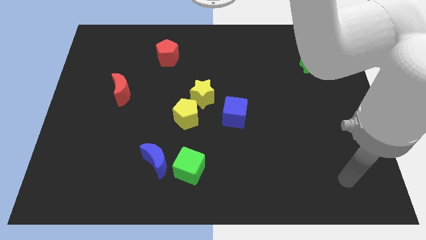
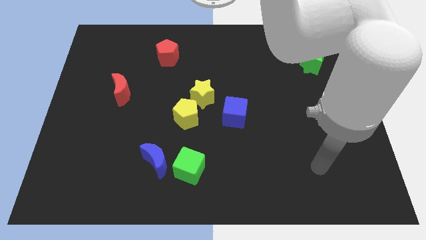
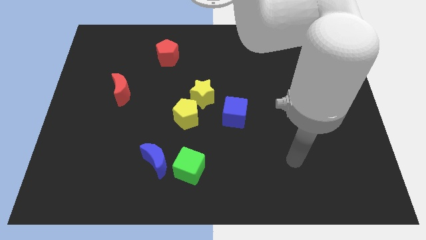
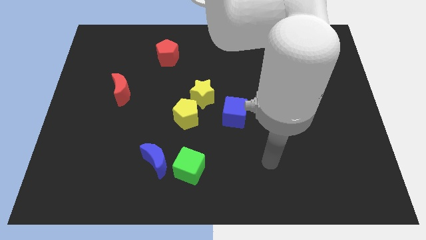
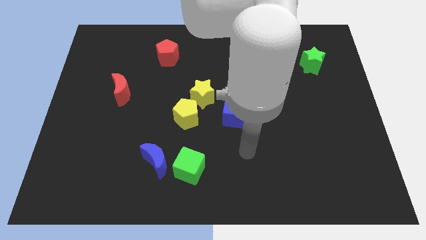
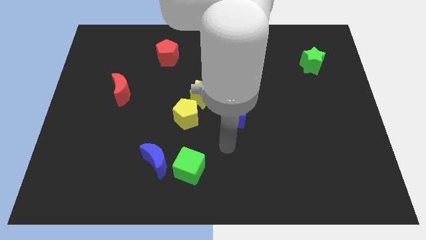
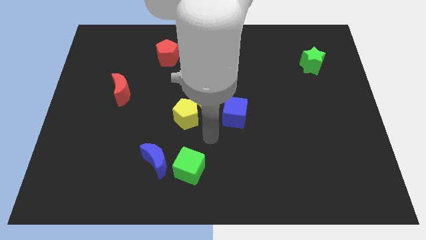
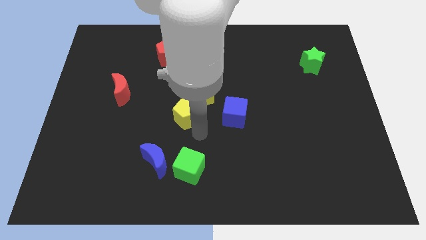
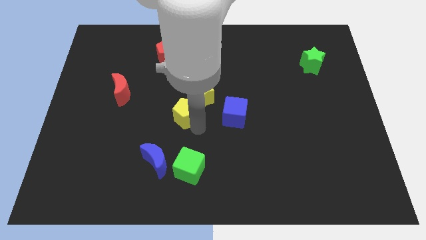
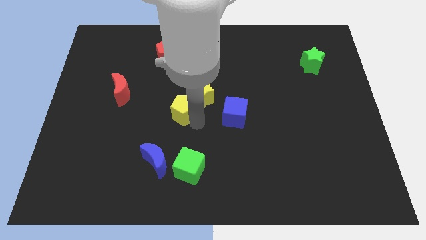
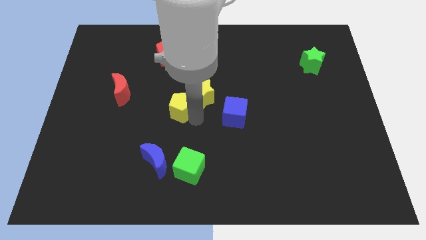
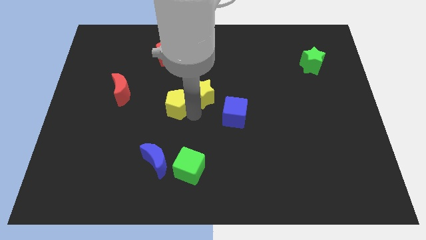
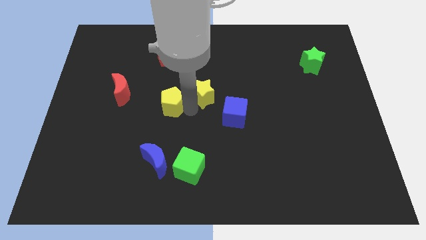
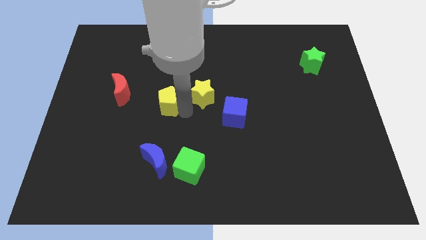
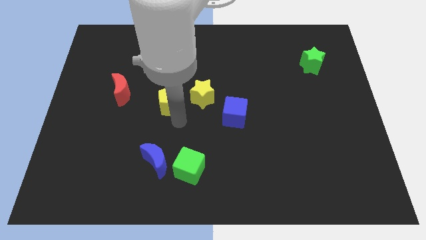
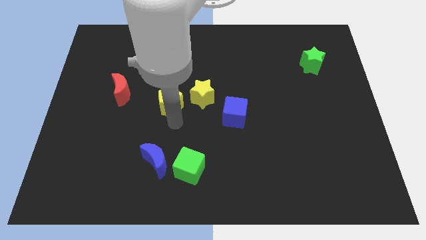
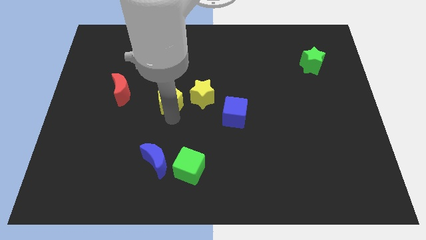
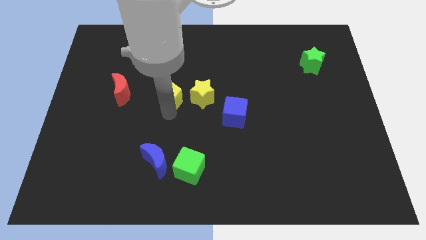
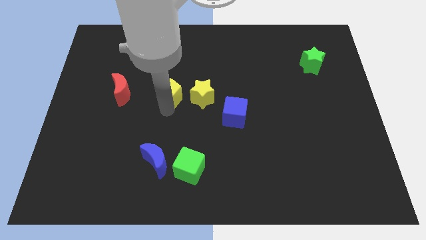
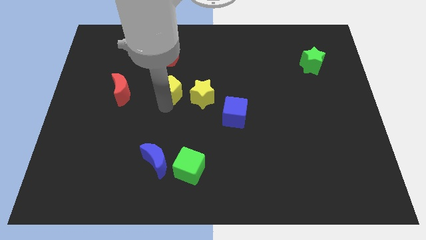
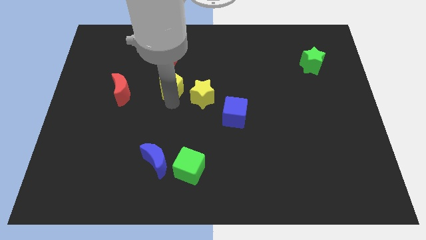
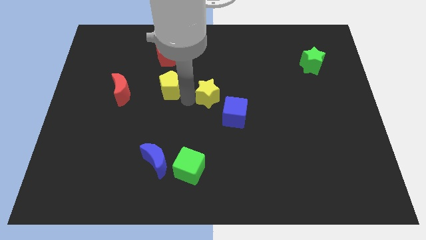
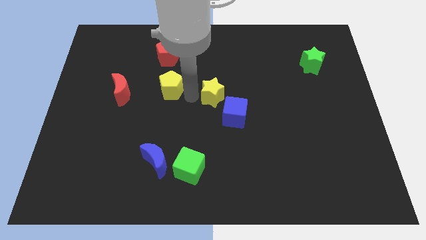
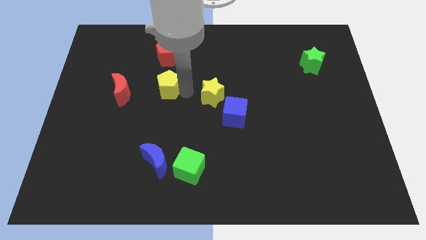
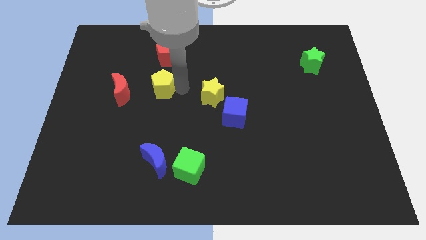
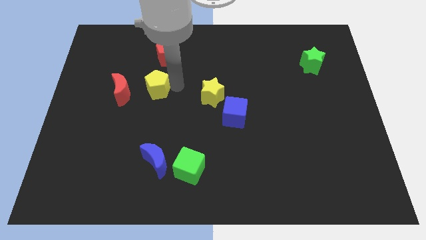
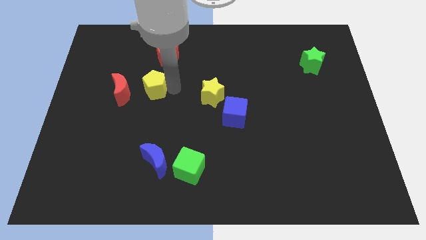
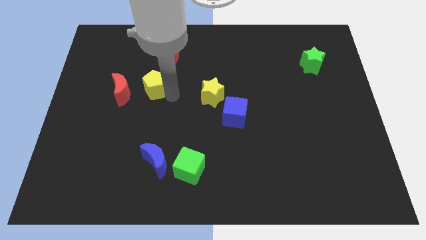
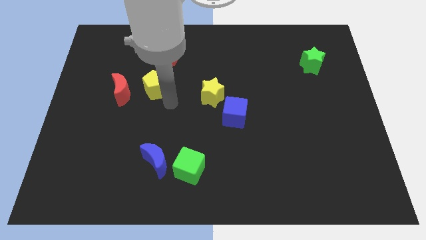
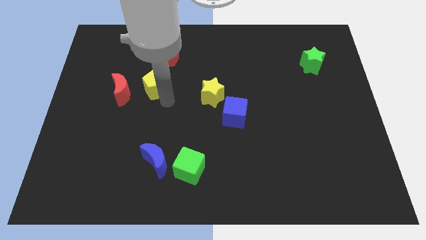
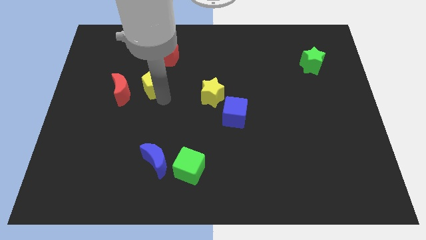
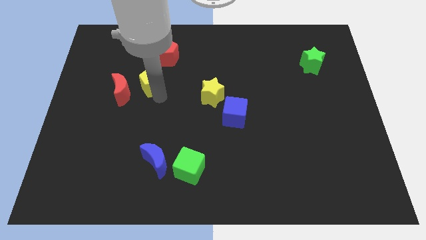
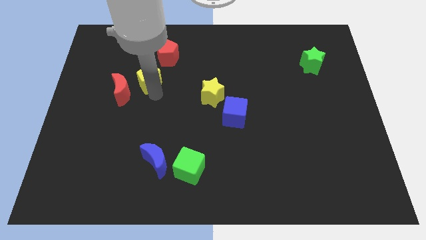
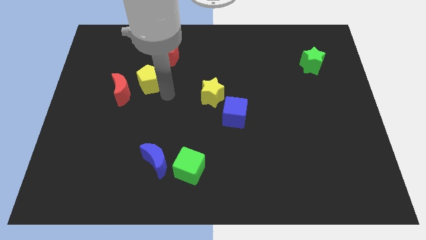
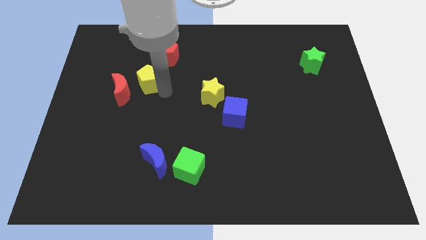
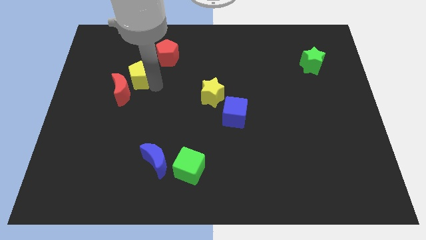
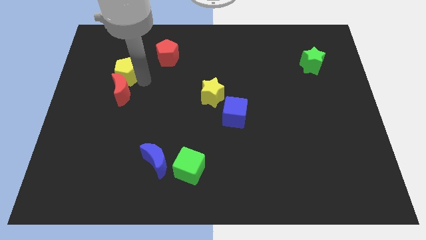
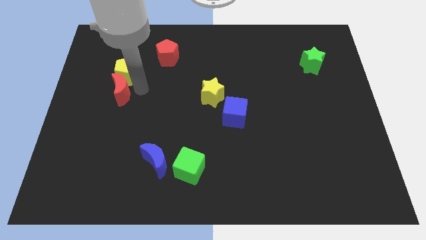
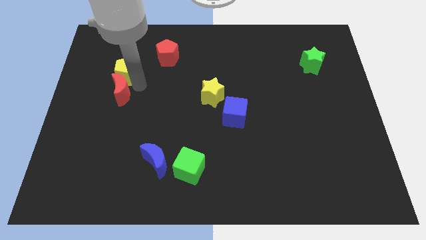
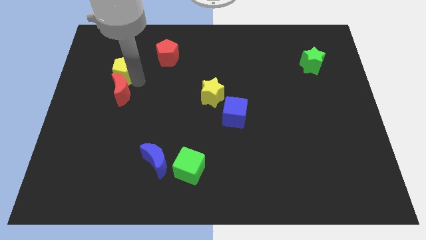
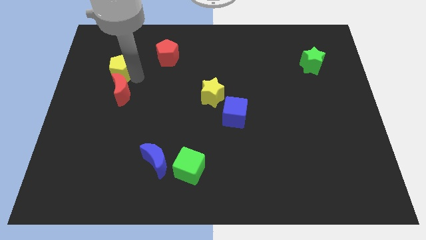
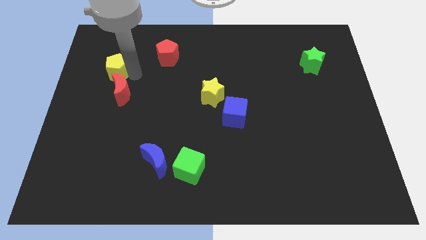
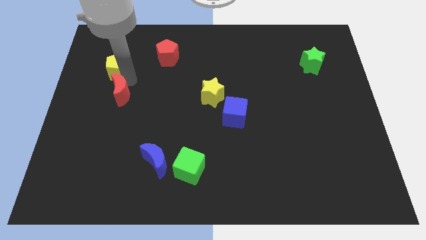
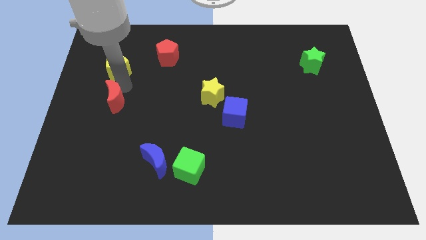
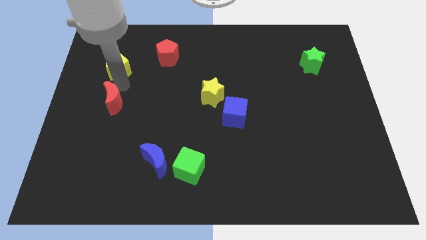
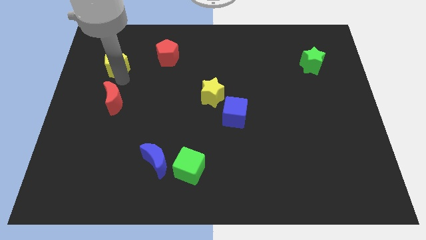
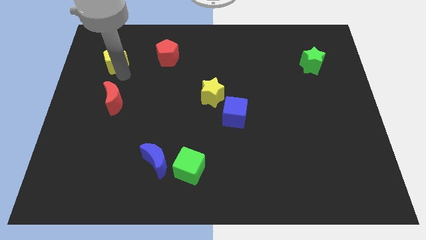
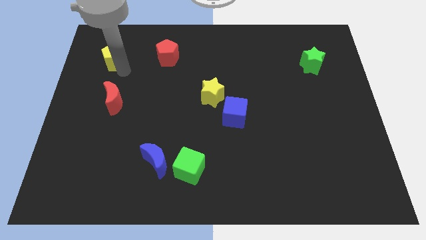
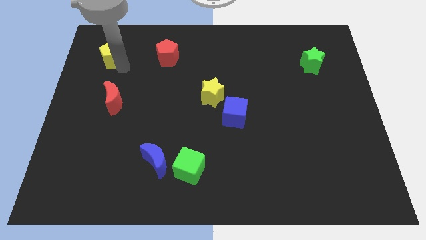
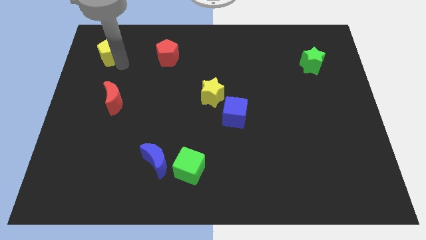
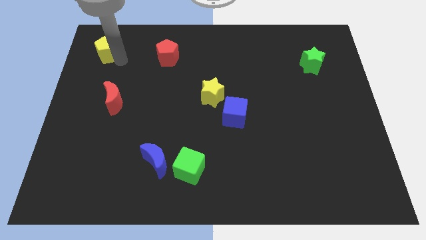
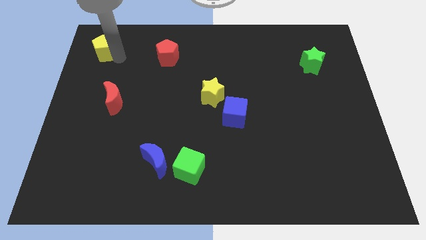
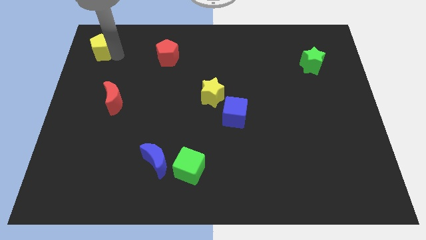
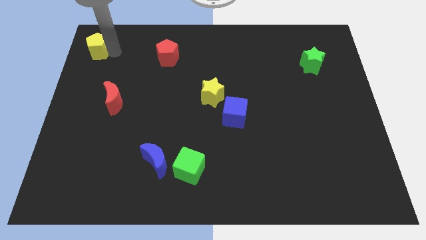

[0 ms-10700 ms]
move the yellow pentagon to the top left
